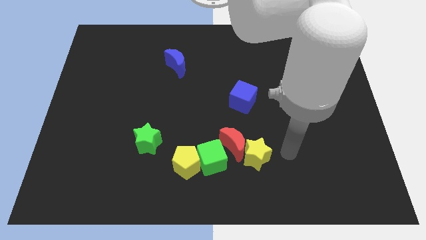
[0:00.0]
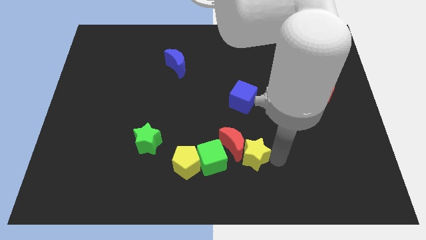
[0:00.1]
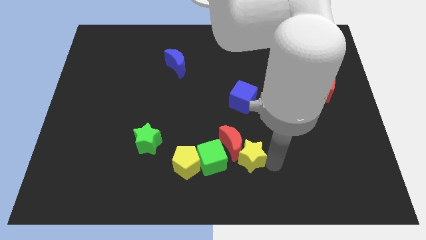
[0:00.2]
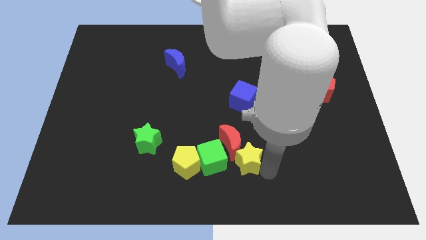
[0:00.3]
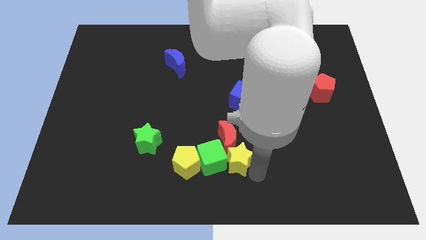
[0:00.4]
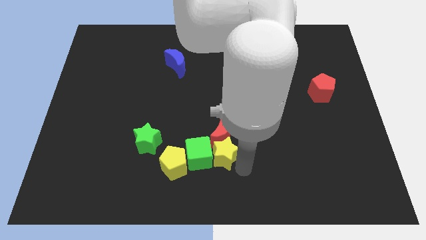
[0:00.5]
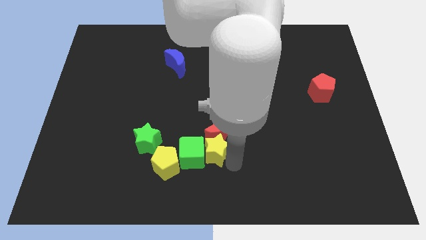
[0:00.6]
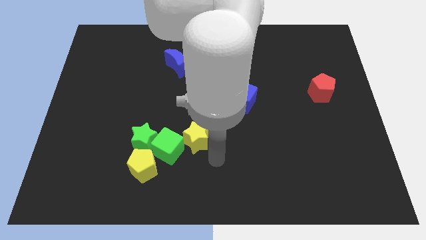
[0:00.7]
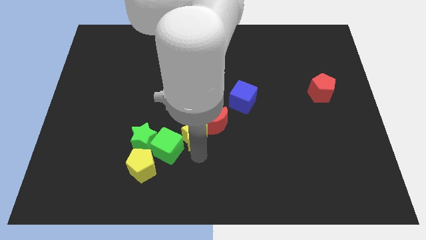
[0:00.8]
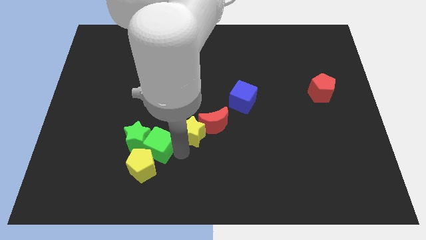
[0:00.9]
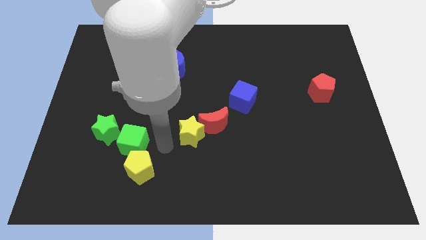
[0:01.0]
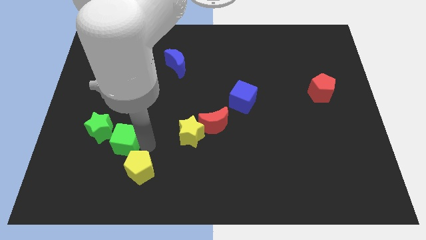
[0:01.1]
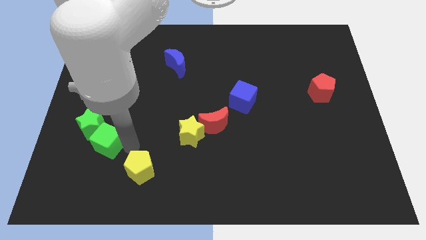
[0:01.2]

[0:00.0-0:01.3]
move the yellow pentagon away from the green cube

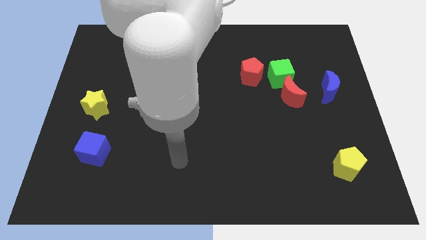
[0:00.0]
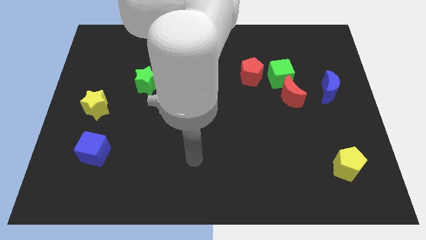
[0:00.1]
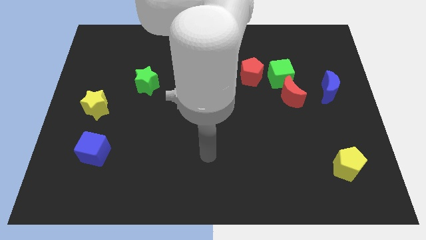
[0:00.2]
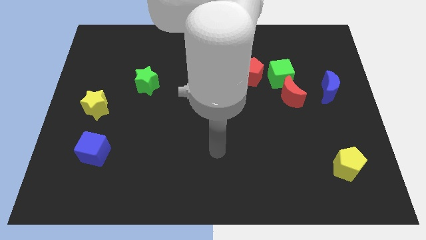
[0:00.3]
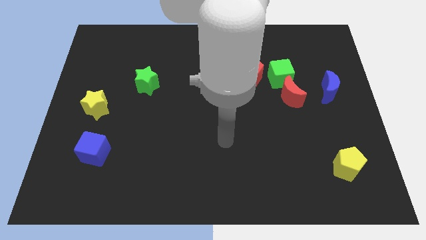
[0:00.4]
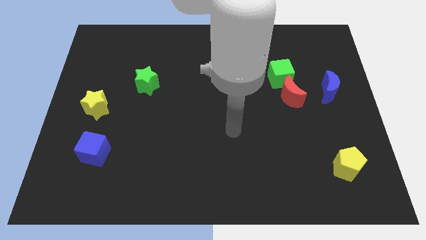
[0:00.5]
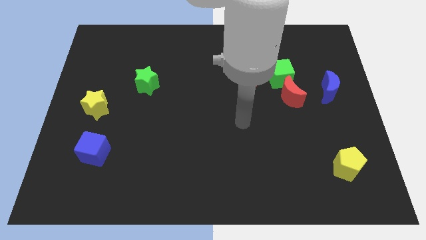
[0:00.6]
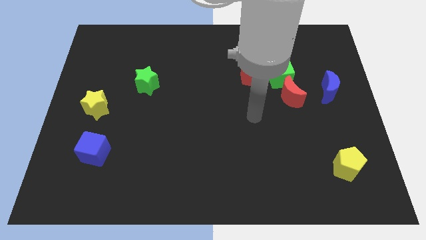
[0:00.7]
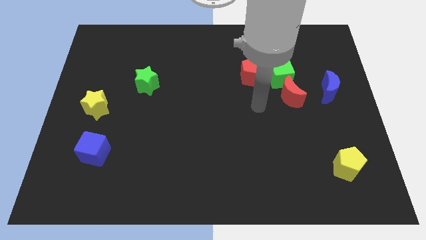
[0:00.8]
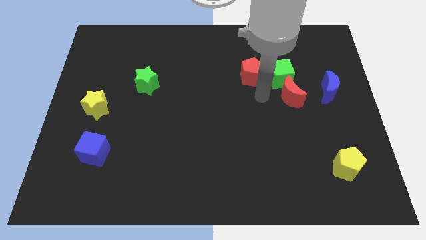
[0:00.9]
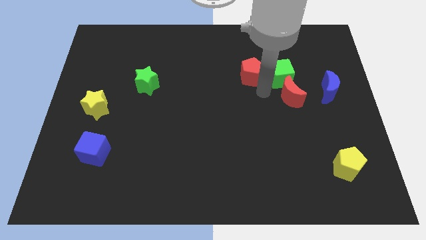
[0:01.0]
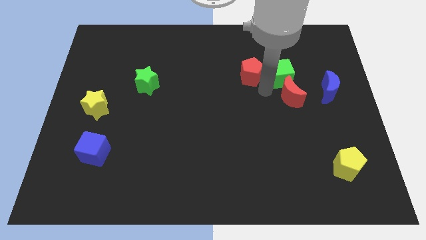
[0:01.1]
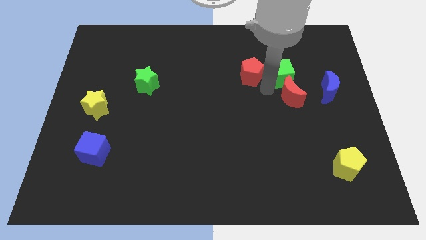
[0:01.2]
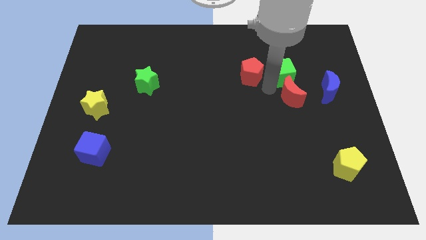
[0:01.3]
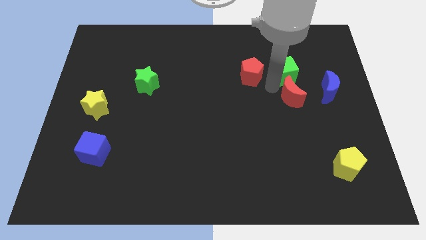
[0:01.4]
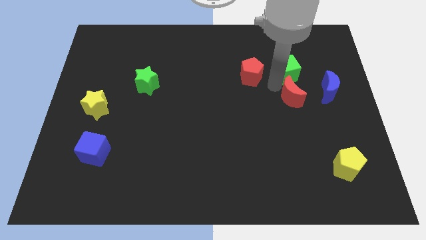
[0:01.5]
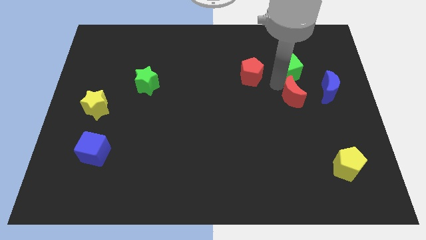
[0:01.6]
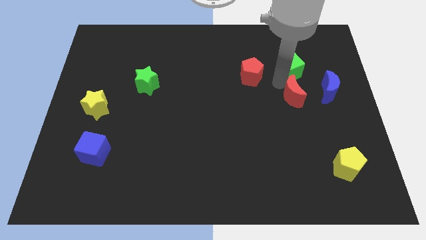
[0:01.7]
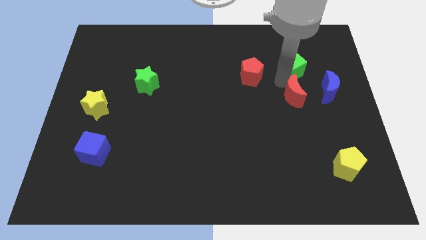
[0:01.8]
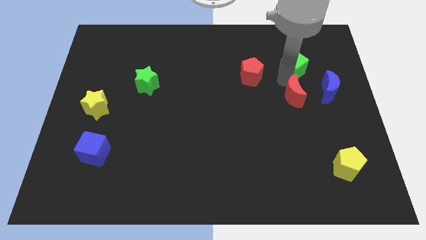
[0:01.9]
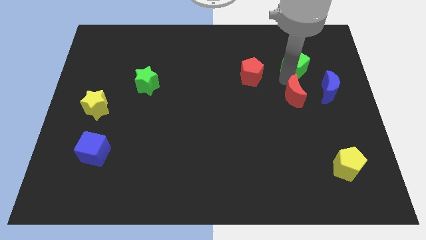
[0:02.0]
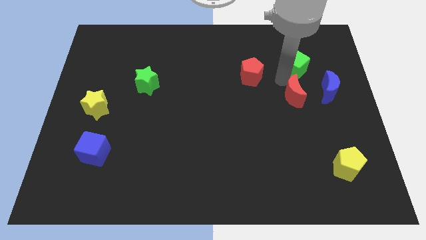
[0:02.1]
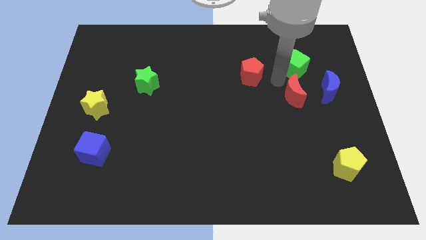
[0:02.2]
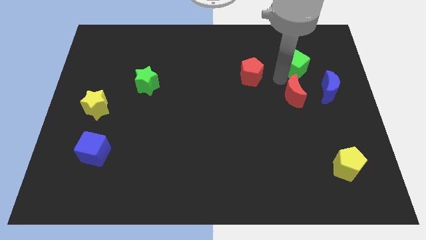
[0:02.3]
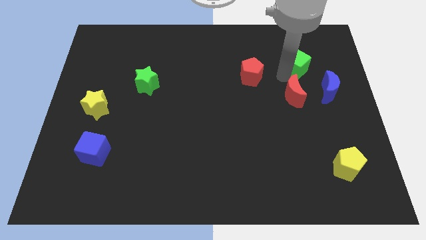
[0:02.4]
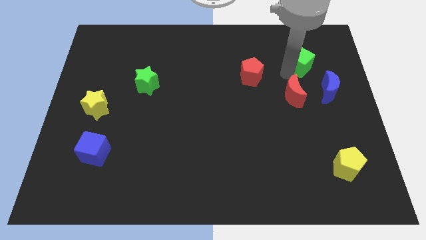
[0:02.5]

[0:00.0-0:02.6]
separate the green cube from the red moon and red pentagon

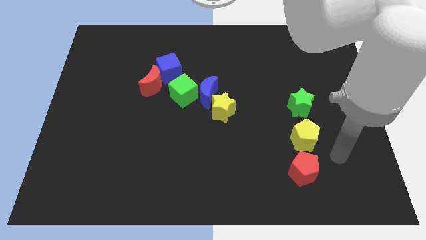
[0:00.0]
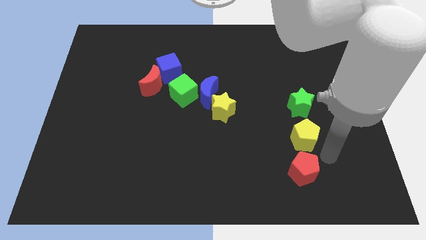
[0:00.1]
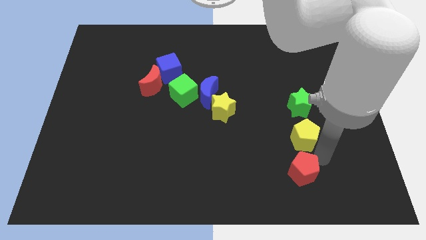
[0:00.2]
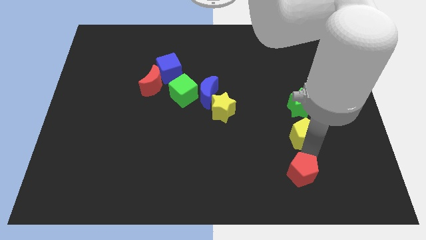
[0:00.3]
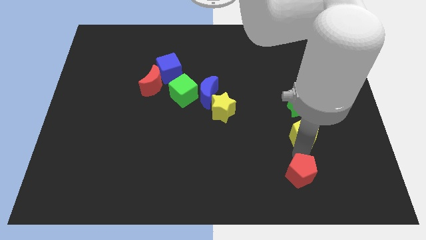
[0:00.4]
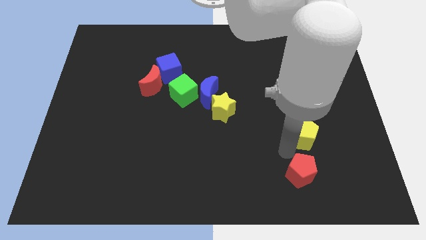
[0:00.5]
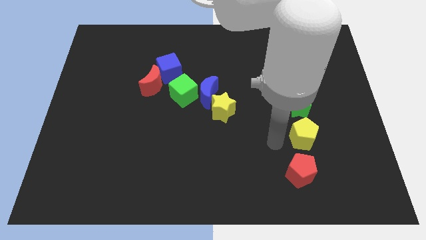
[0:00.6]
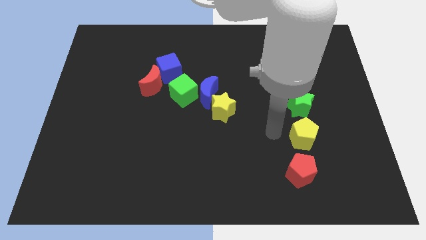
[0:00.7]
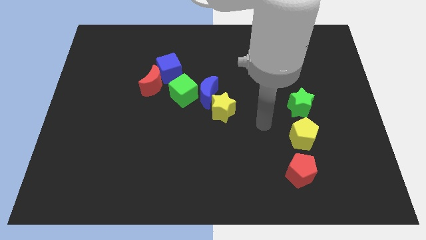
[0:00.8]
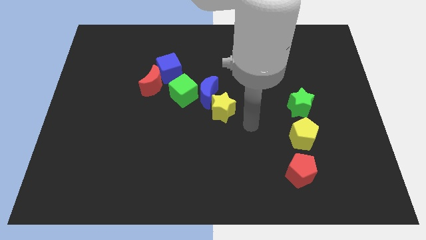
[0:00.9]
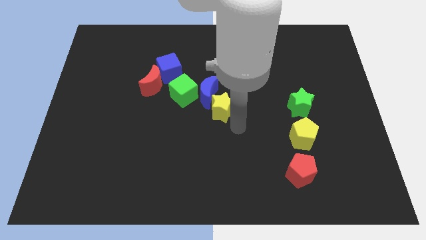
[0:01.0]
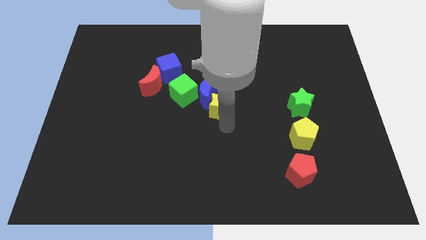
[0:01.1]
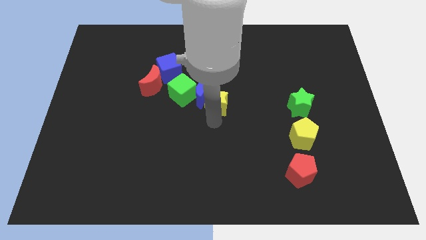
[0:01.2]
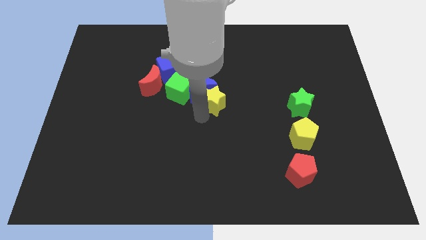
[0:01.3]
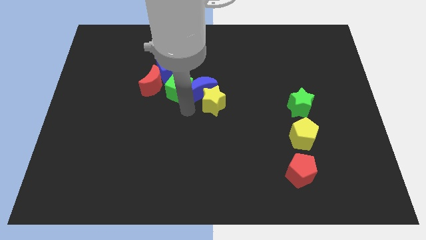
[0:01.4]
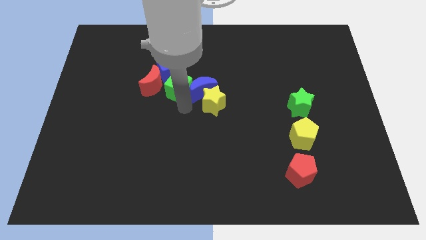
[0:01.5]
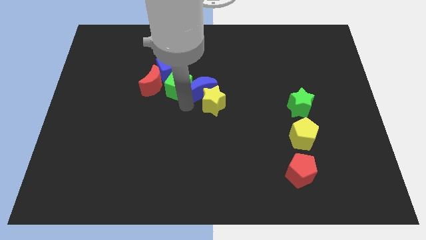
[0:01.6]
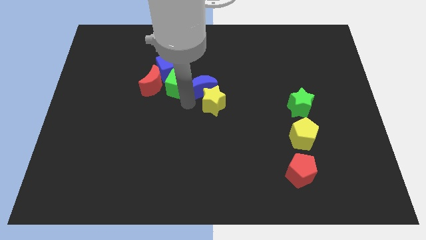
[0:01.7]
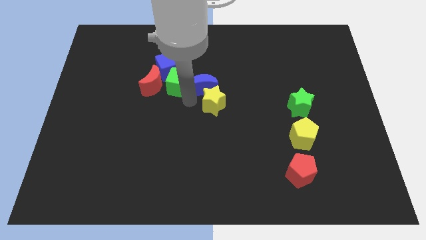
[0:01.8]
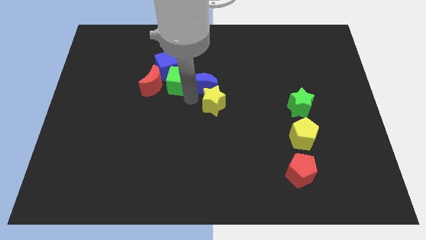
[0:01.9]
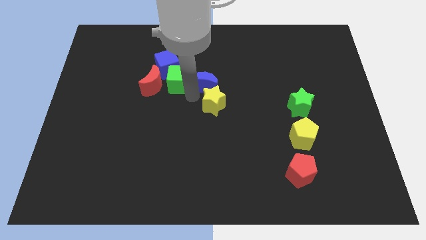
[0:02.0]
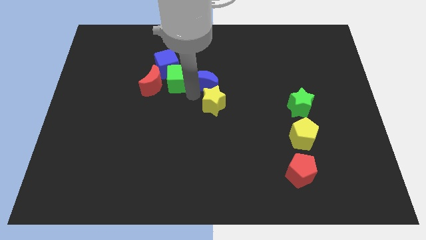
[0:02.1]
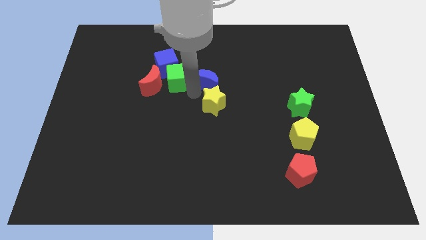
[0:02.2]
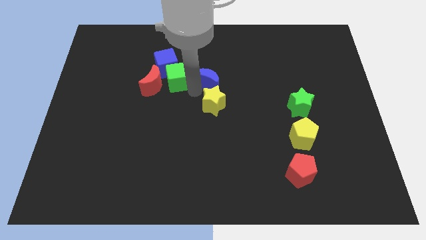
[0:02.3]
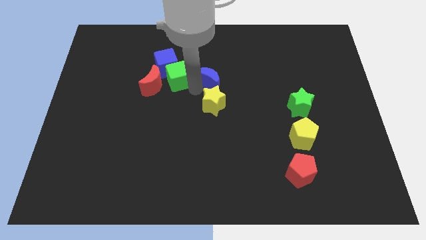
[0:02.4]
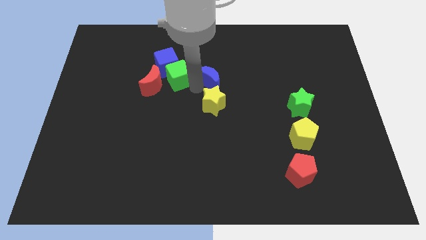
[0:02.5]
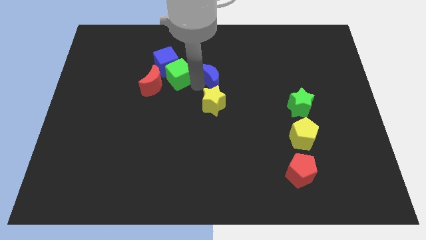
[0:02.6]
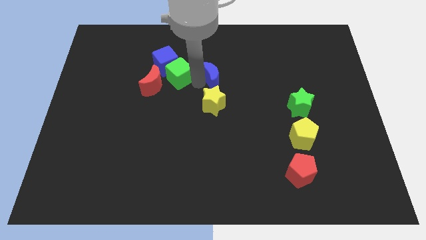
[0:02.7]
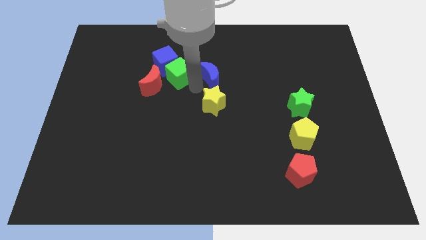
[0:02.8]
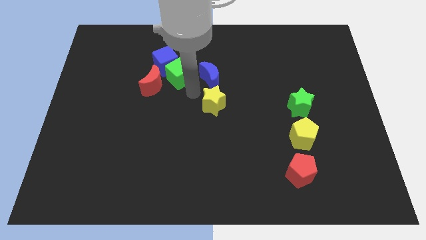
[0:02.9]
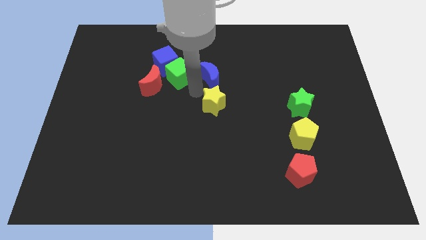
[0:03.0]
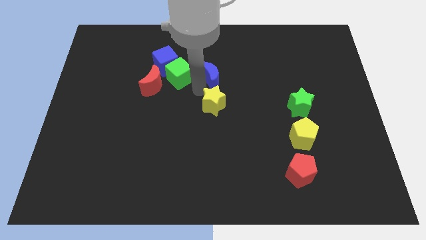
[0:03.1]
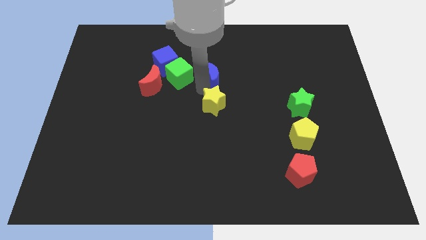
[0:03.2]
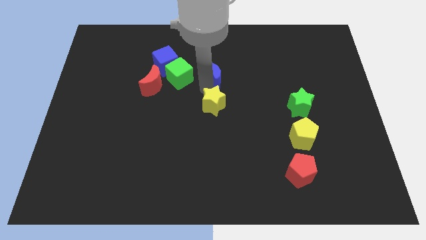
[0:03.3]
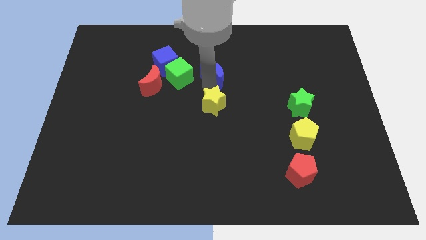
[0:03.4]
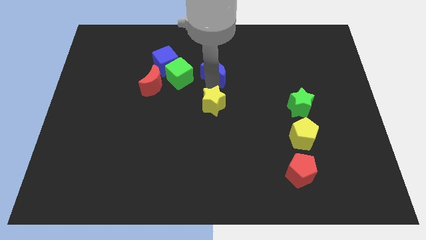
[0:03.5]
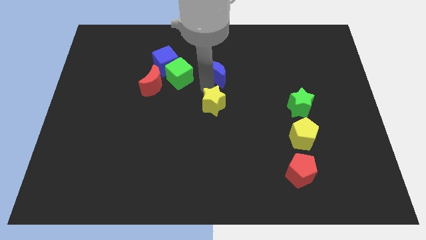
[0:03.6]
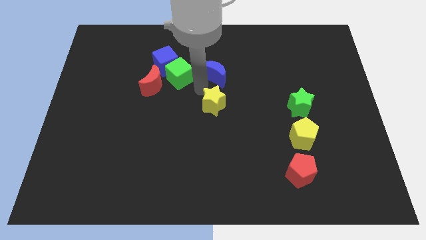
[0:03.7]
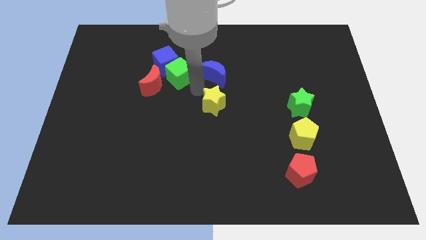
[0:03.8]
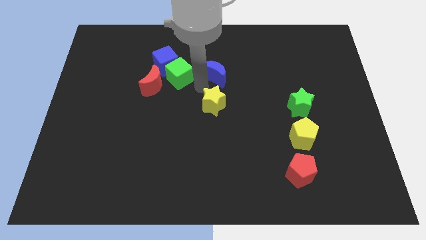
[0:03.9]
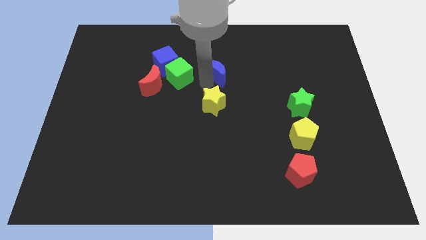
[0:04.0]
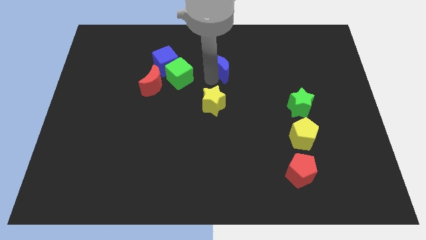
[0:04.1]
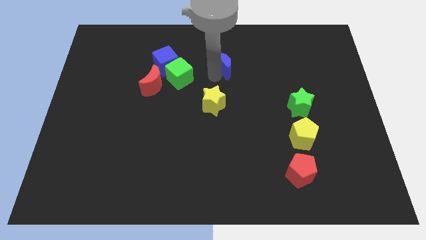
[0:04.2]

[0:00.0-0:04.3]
separate the blue moon from the green cube and yellow star

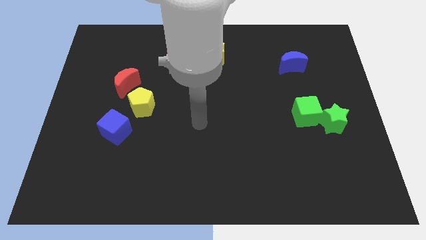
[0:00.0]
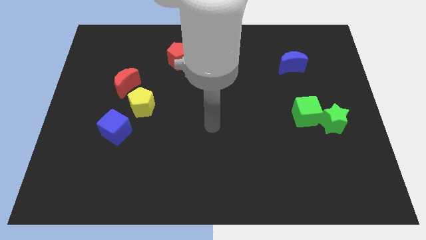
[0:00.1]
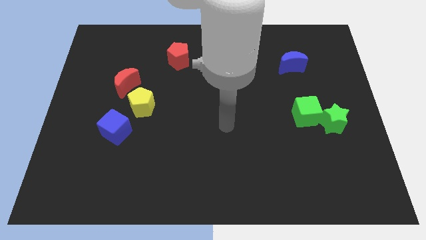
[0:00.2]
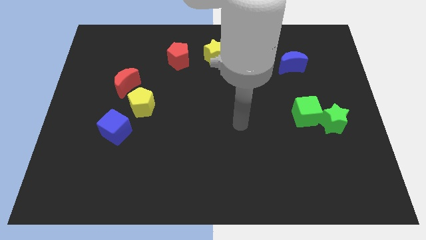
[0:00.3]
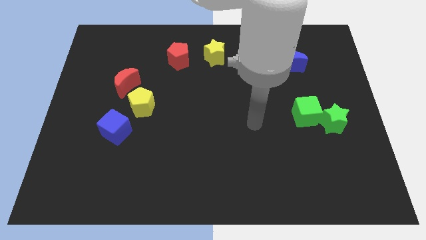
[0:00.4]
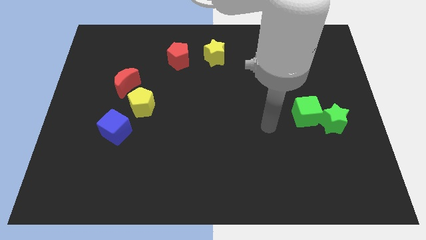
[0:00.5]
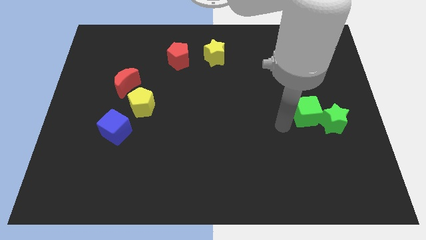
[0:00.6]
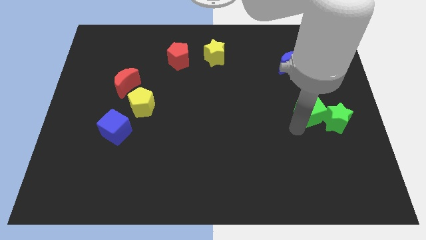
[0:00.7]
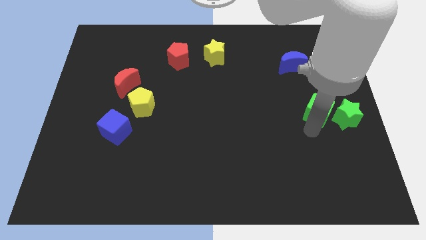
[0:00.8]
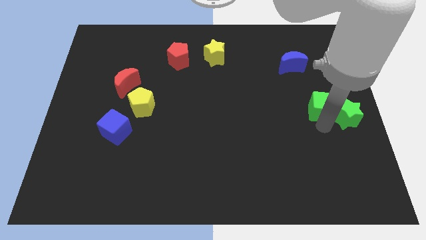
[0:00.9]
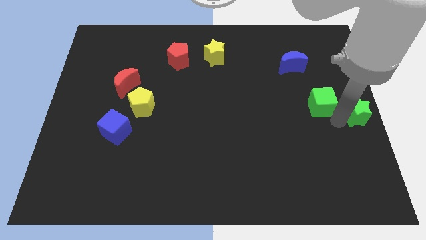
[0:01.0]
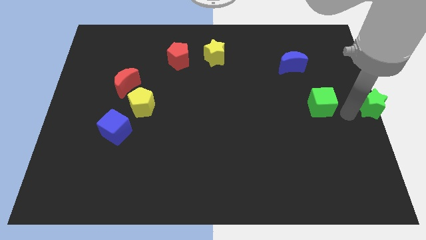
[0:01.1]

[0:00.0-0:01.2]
separate the green cube from the green star
